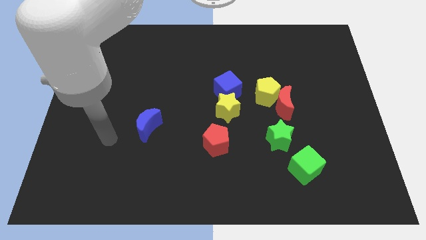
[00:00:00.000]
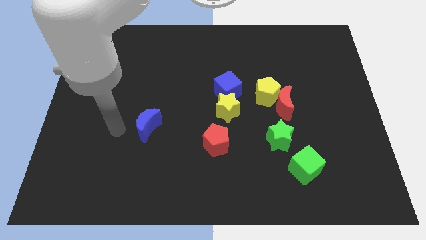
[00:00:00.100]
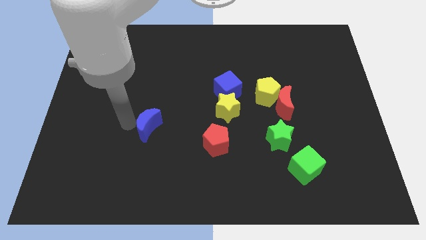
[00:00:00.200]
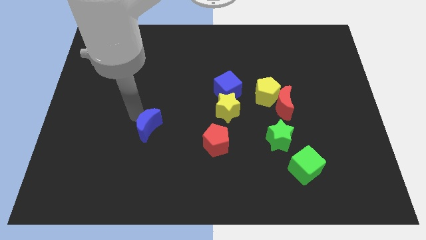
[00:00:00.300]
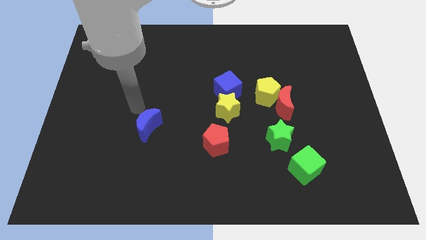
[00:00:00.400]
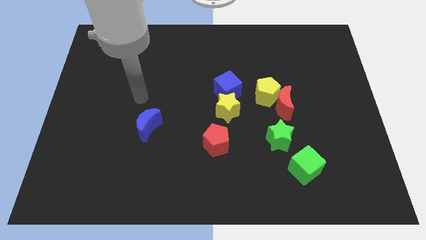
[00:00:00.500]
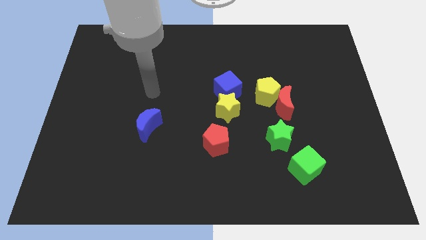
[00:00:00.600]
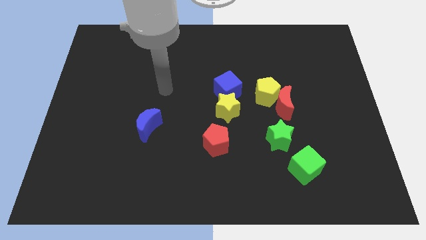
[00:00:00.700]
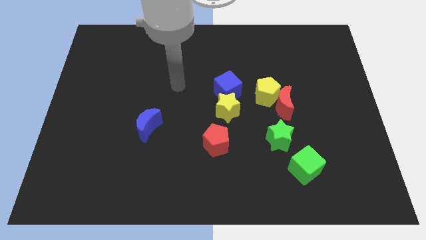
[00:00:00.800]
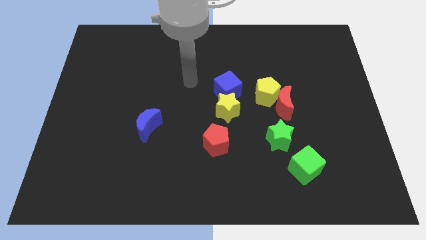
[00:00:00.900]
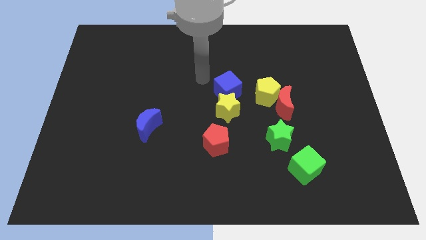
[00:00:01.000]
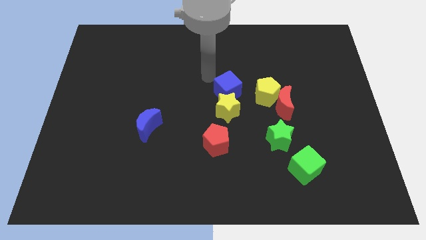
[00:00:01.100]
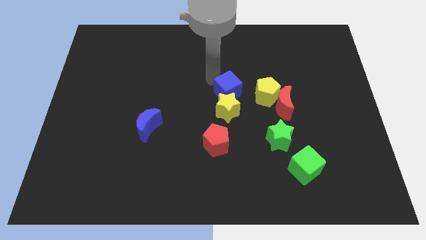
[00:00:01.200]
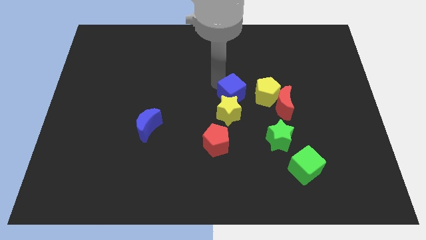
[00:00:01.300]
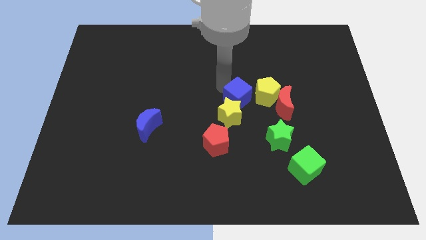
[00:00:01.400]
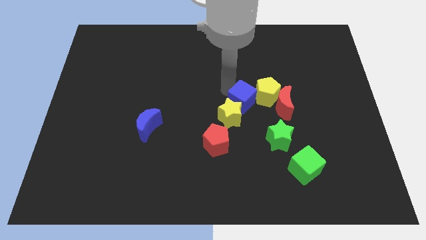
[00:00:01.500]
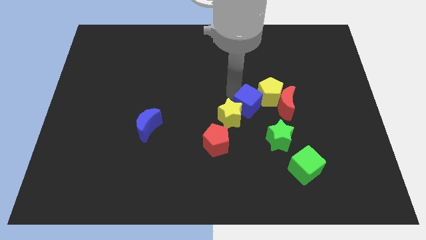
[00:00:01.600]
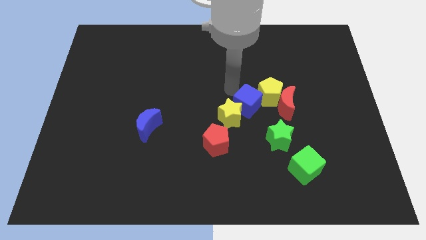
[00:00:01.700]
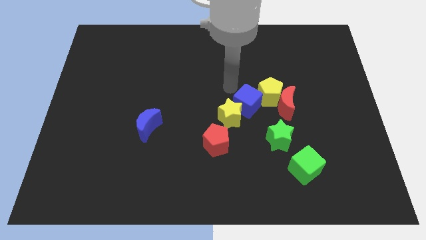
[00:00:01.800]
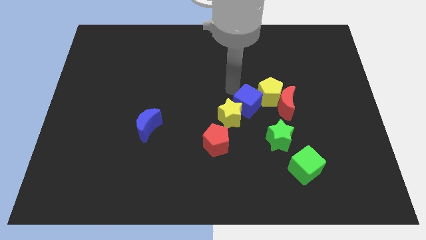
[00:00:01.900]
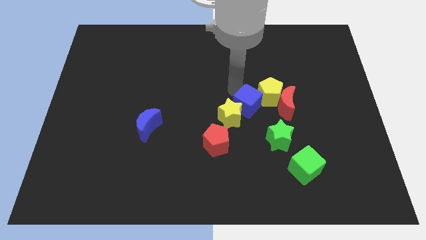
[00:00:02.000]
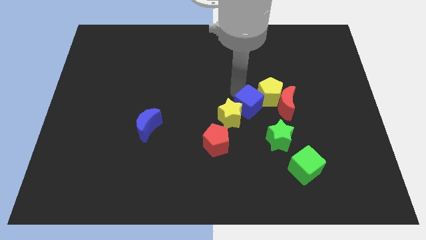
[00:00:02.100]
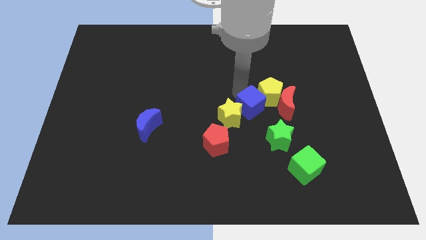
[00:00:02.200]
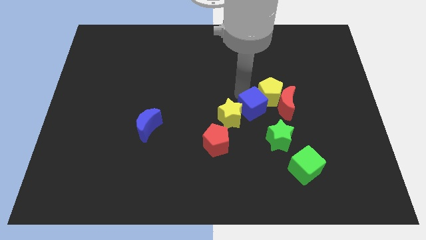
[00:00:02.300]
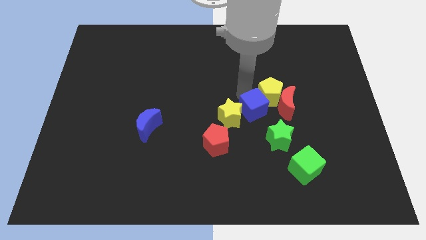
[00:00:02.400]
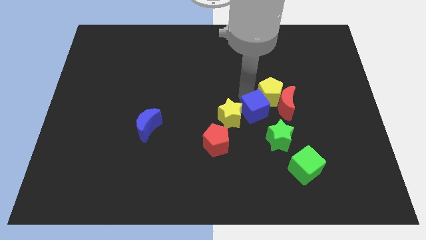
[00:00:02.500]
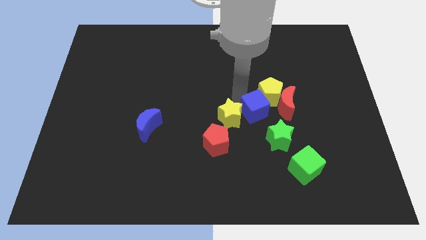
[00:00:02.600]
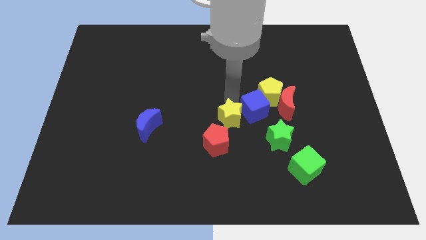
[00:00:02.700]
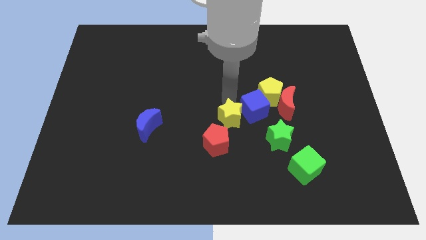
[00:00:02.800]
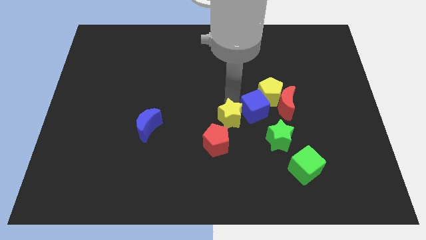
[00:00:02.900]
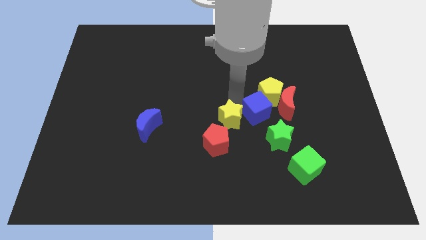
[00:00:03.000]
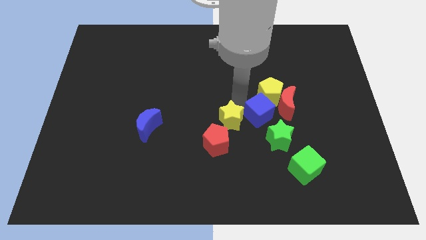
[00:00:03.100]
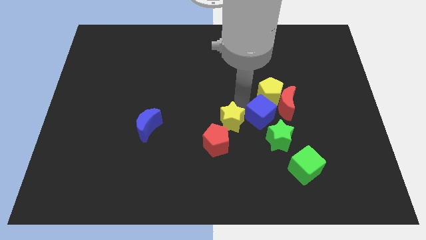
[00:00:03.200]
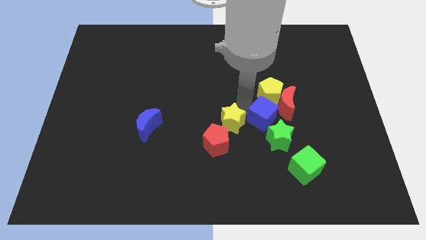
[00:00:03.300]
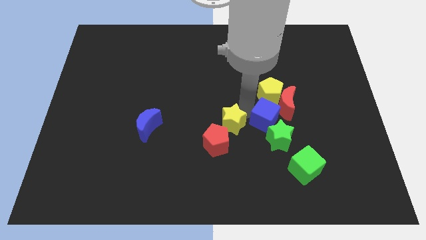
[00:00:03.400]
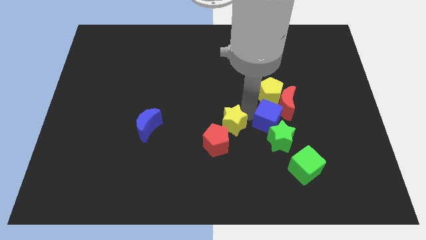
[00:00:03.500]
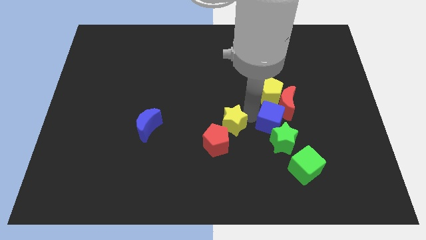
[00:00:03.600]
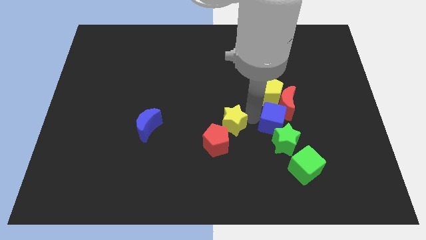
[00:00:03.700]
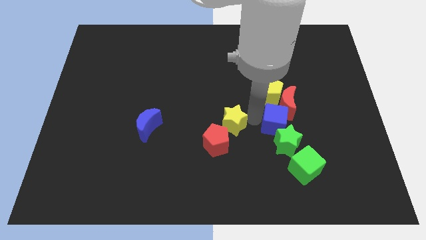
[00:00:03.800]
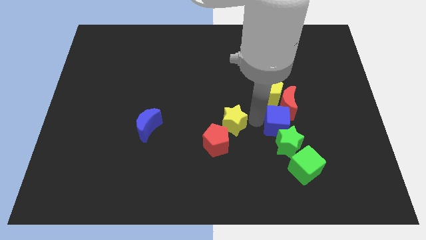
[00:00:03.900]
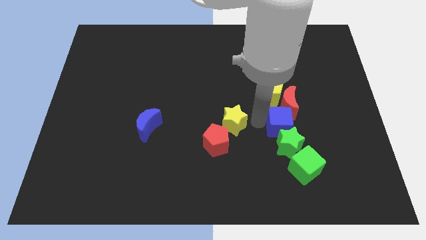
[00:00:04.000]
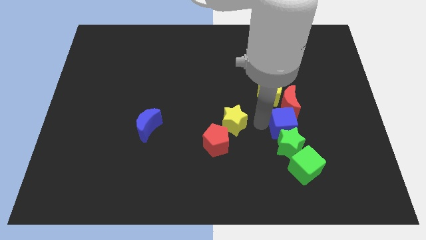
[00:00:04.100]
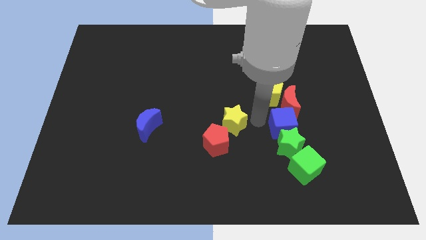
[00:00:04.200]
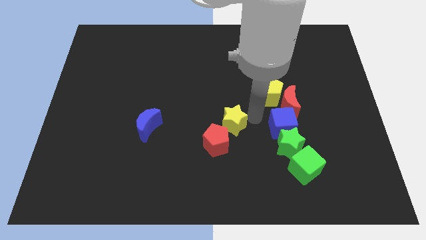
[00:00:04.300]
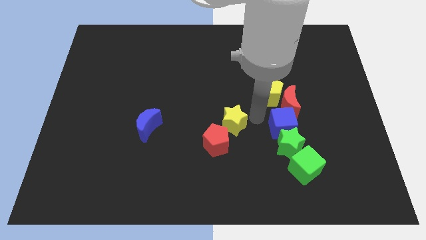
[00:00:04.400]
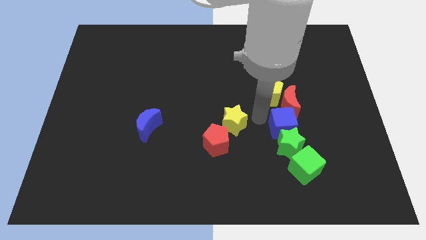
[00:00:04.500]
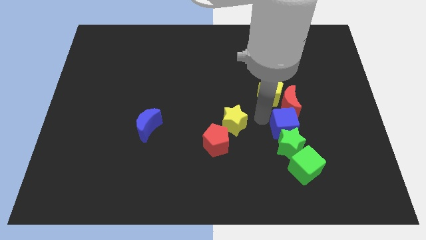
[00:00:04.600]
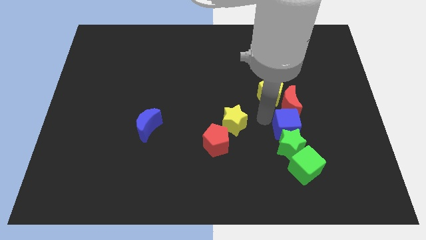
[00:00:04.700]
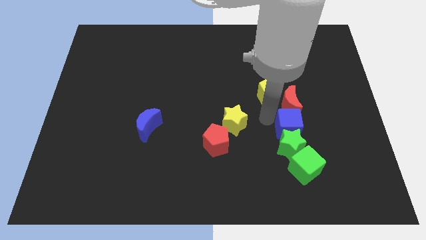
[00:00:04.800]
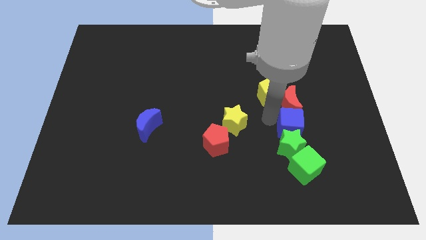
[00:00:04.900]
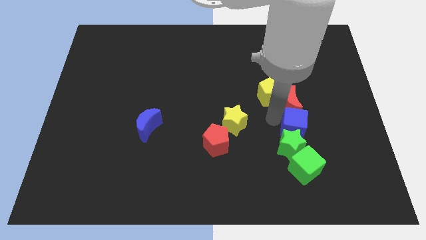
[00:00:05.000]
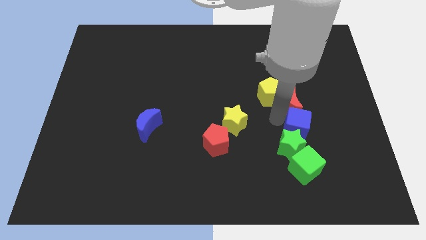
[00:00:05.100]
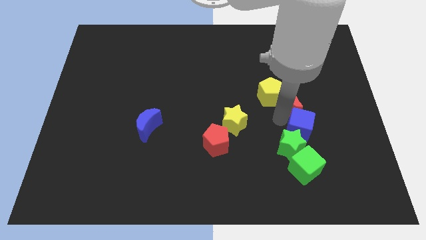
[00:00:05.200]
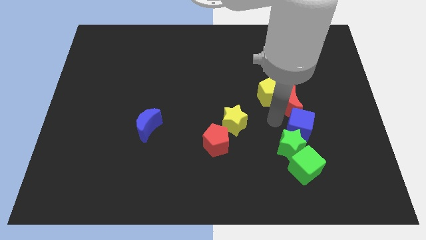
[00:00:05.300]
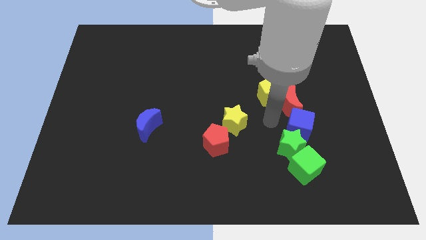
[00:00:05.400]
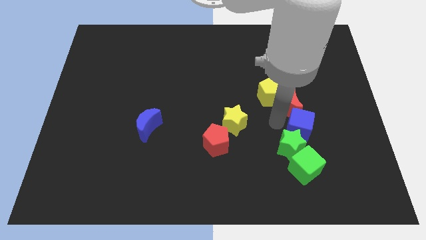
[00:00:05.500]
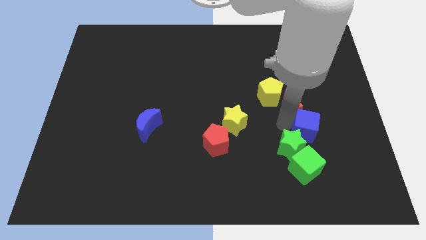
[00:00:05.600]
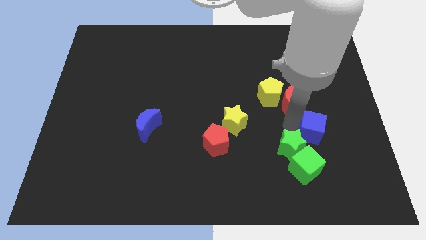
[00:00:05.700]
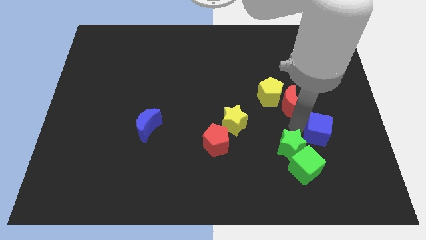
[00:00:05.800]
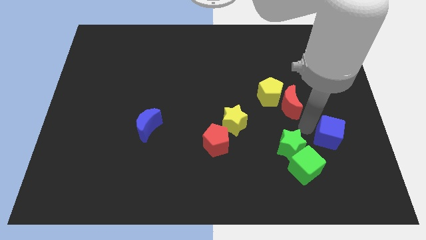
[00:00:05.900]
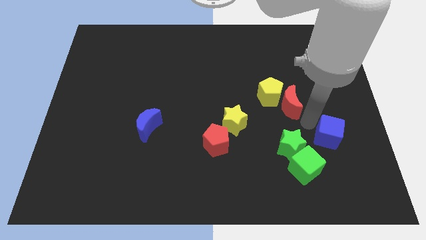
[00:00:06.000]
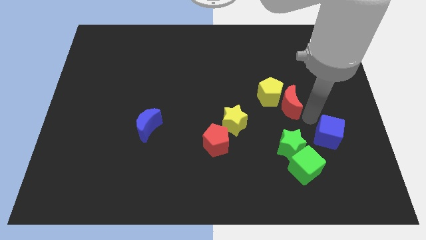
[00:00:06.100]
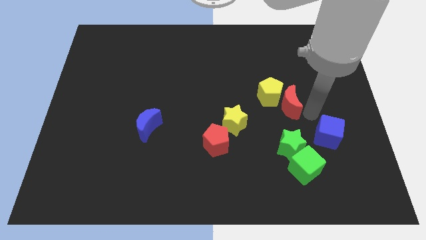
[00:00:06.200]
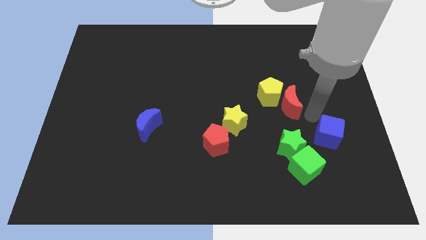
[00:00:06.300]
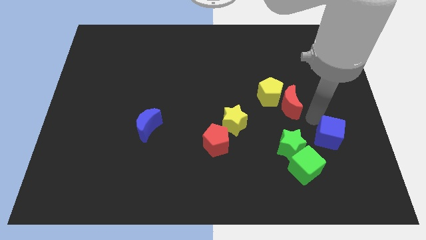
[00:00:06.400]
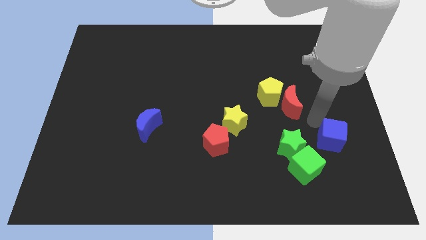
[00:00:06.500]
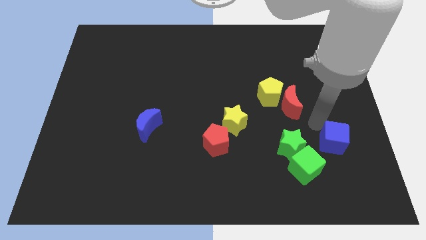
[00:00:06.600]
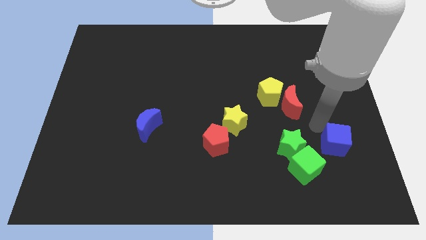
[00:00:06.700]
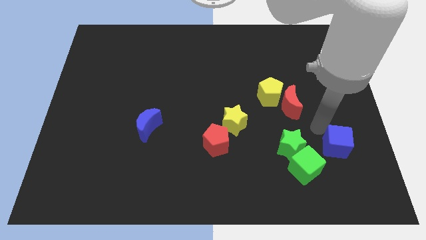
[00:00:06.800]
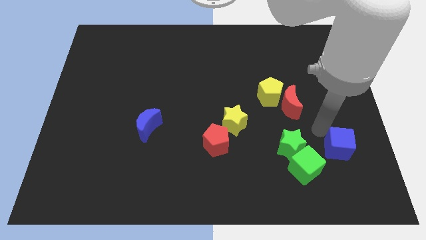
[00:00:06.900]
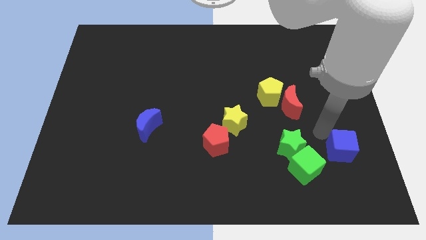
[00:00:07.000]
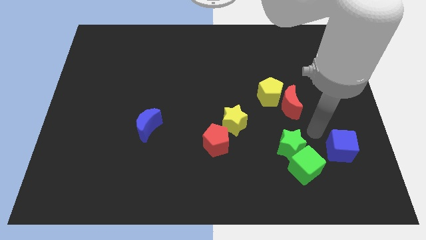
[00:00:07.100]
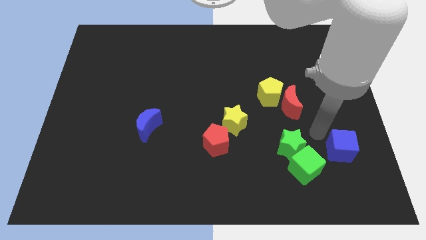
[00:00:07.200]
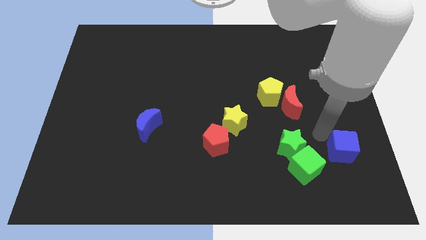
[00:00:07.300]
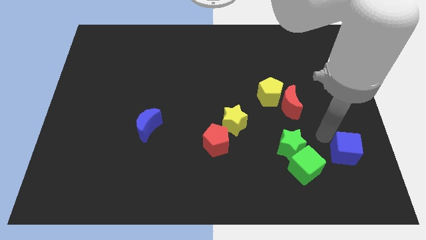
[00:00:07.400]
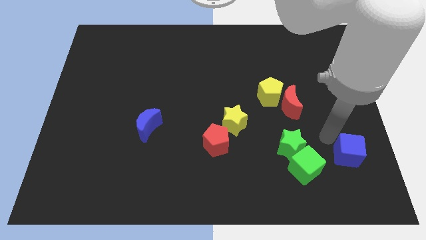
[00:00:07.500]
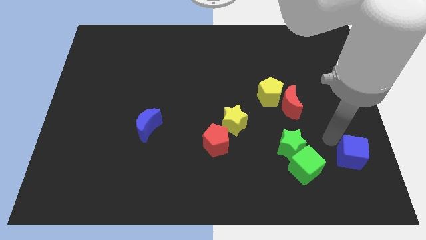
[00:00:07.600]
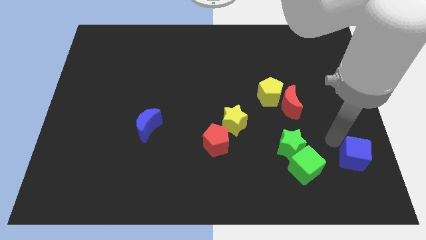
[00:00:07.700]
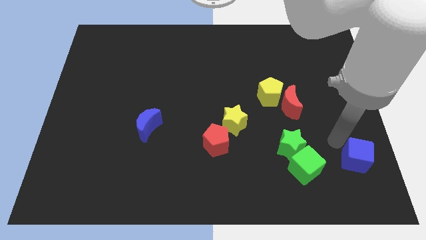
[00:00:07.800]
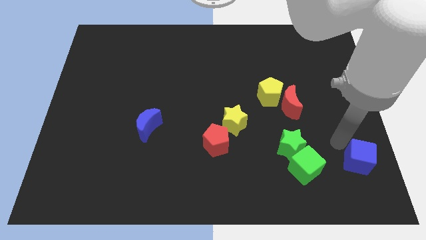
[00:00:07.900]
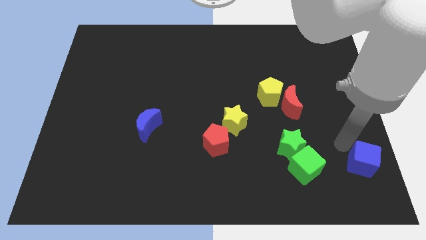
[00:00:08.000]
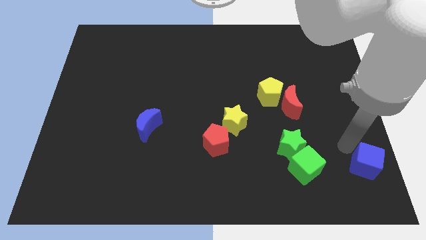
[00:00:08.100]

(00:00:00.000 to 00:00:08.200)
move the blue cube to the bottom right corner
